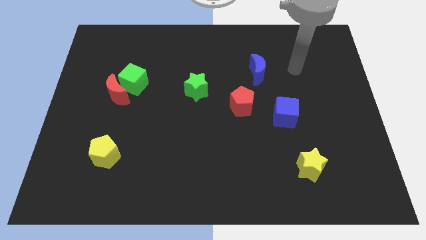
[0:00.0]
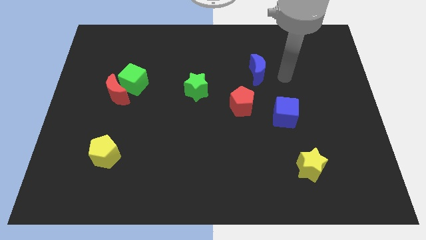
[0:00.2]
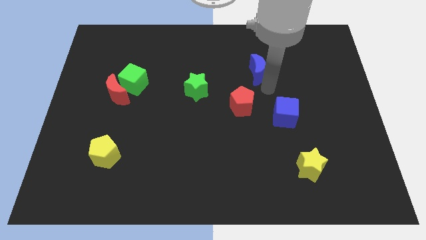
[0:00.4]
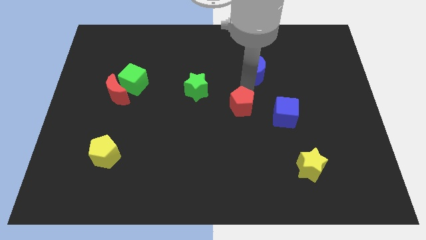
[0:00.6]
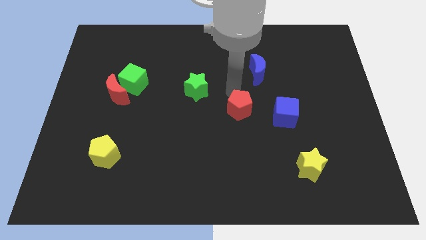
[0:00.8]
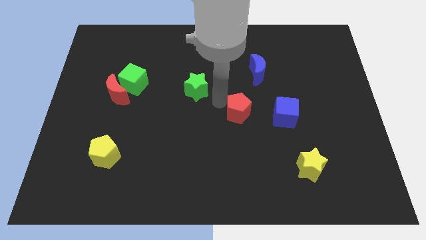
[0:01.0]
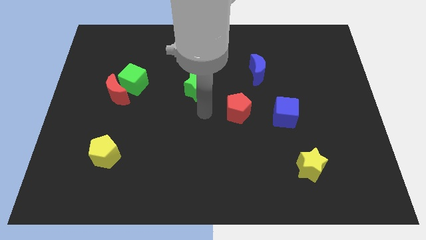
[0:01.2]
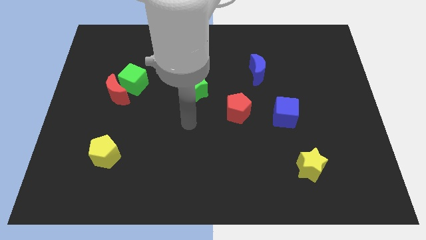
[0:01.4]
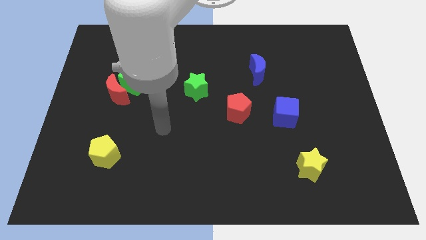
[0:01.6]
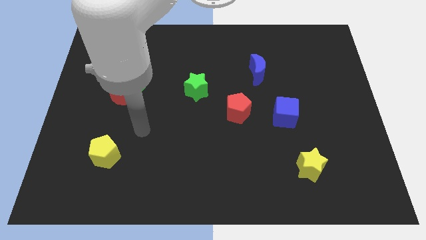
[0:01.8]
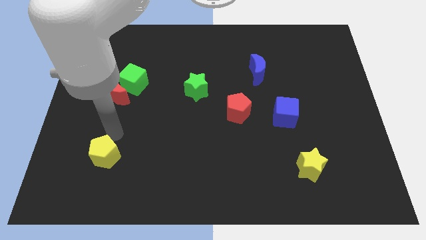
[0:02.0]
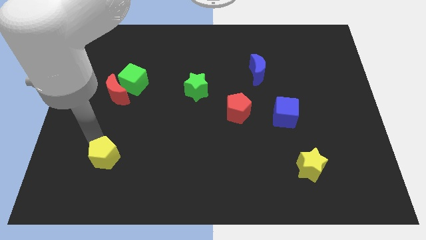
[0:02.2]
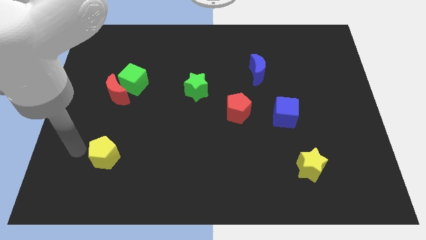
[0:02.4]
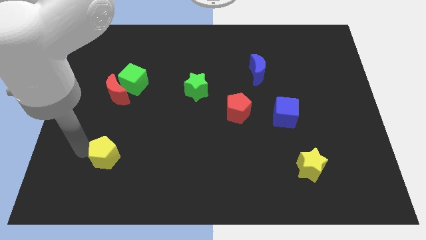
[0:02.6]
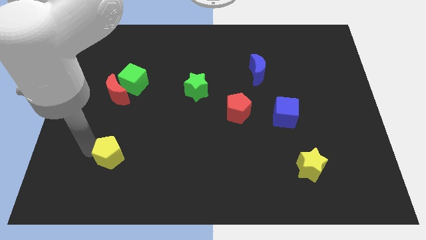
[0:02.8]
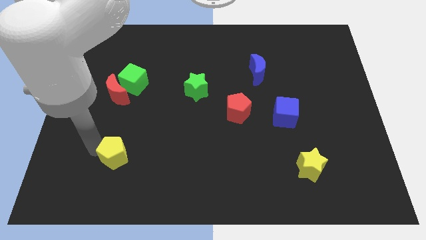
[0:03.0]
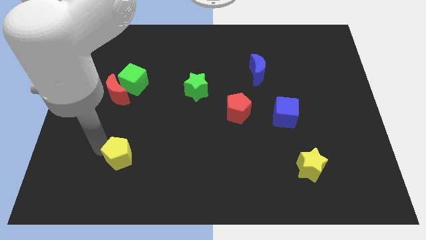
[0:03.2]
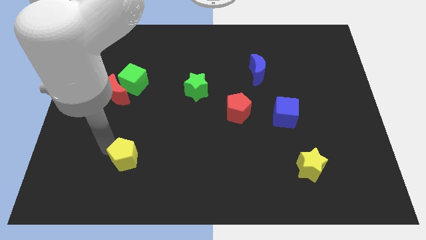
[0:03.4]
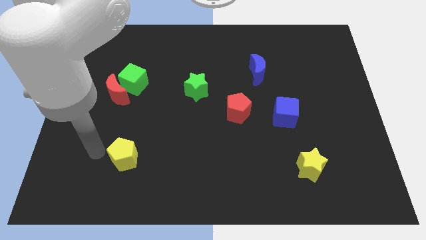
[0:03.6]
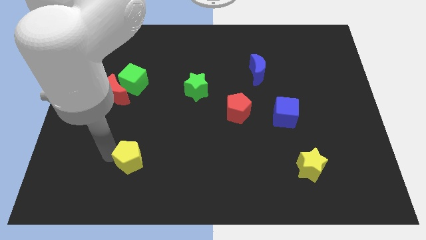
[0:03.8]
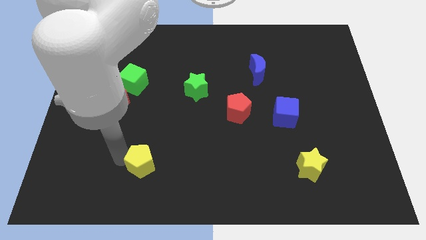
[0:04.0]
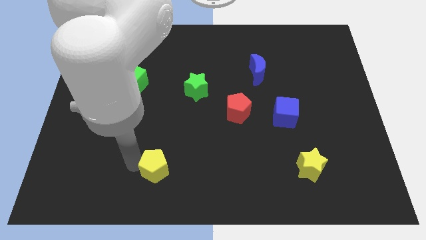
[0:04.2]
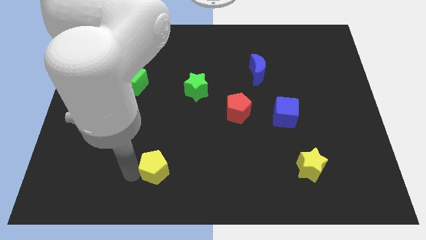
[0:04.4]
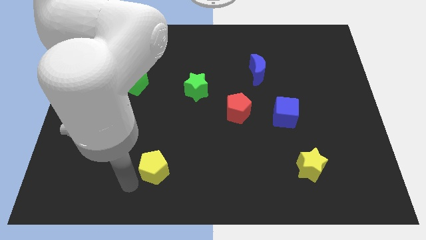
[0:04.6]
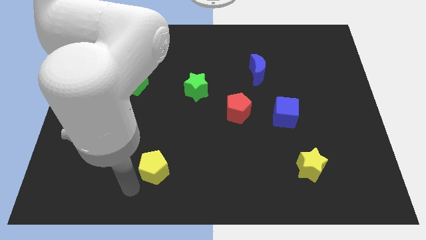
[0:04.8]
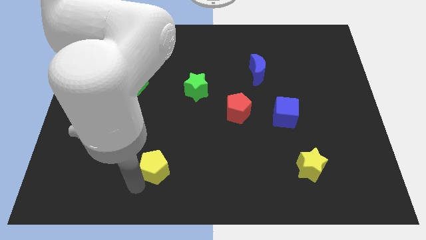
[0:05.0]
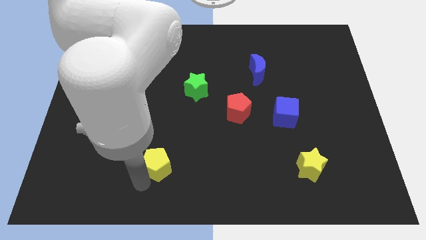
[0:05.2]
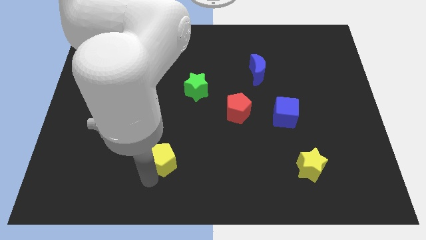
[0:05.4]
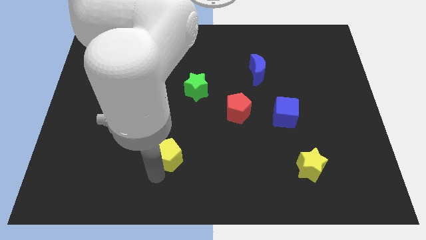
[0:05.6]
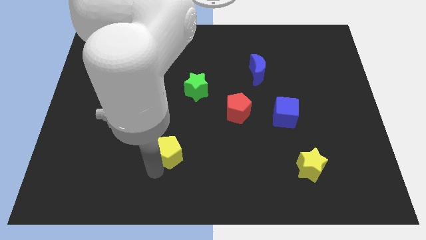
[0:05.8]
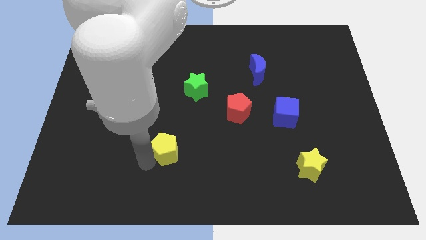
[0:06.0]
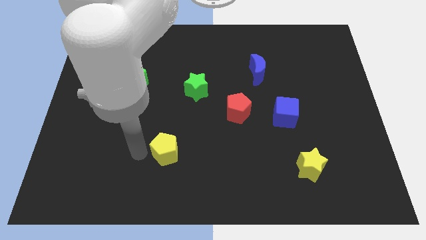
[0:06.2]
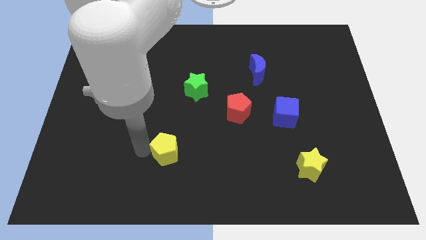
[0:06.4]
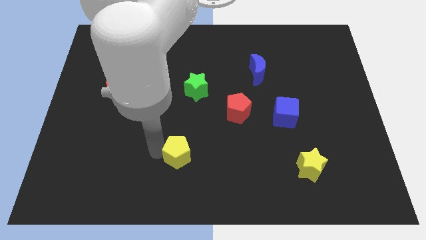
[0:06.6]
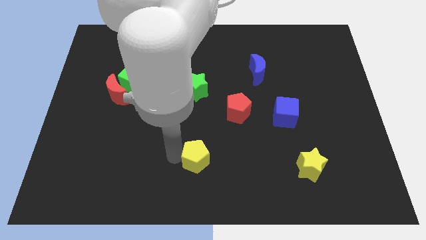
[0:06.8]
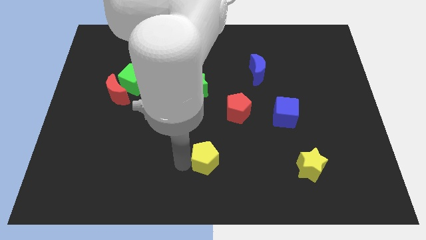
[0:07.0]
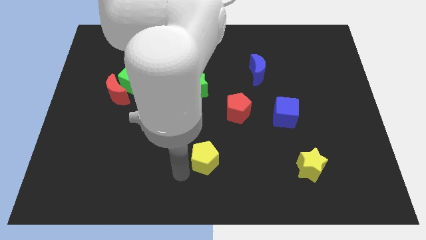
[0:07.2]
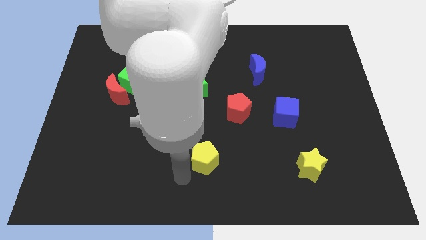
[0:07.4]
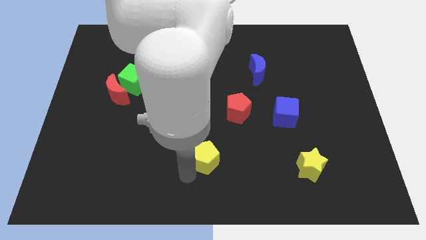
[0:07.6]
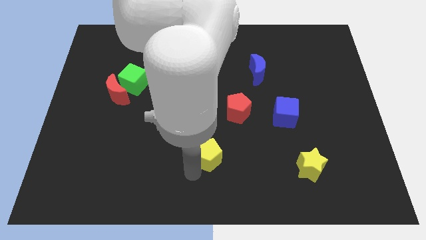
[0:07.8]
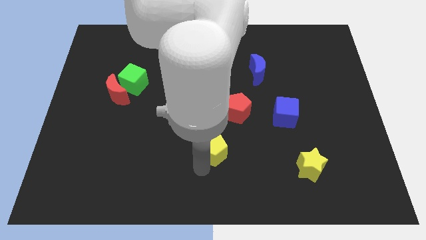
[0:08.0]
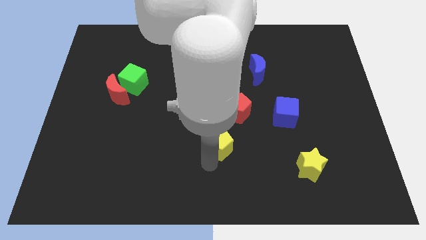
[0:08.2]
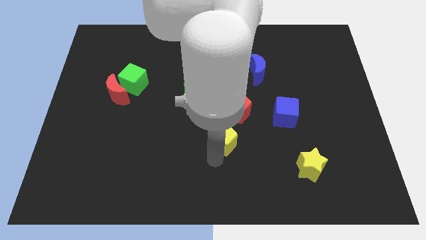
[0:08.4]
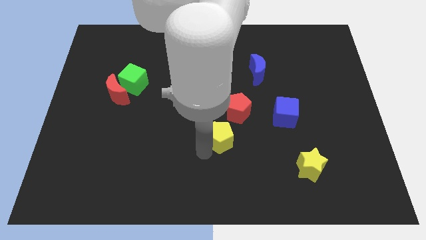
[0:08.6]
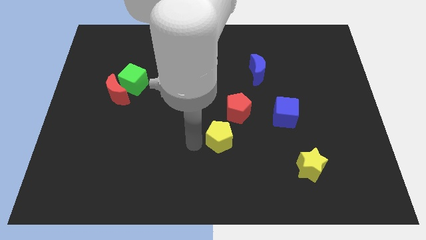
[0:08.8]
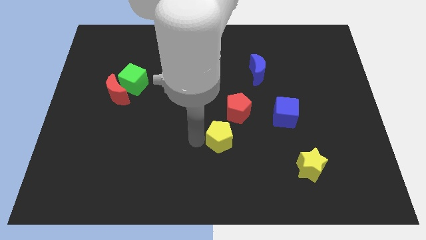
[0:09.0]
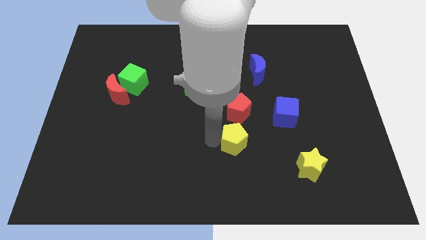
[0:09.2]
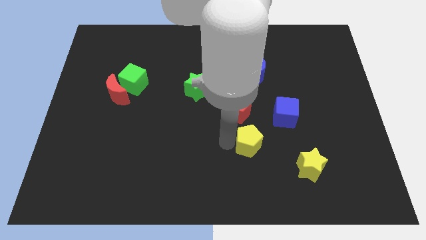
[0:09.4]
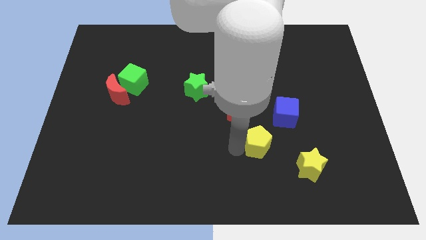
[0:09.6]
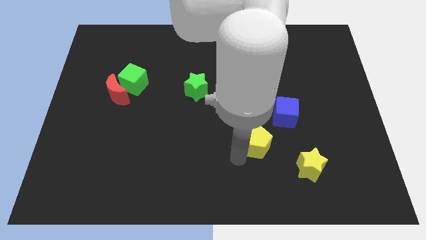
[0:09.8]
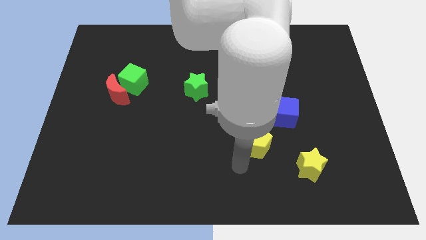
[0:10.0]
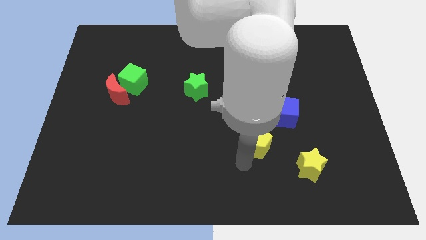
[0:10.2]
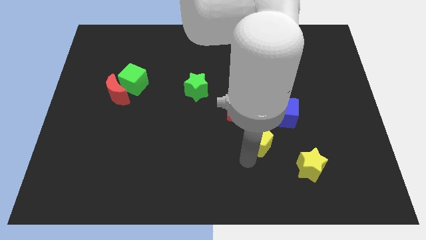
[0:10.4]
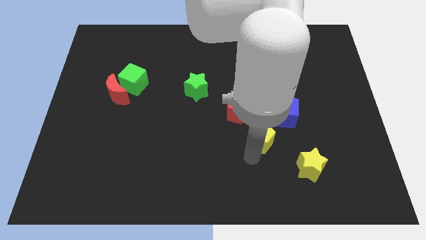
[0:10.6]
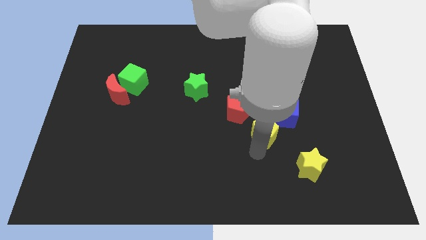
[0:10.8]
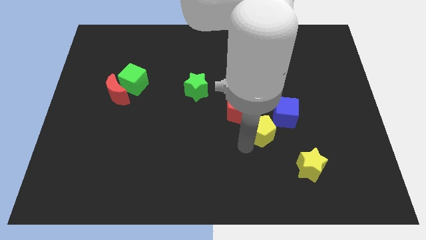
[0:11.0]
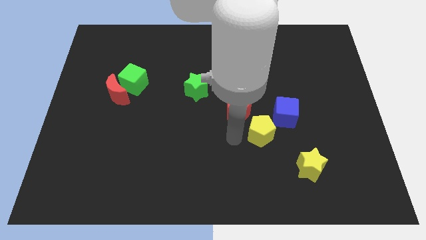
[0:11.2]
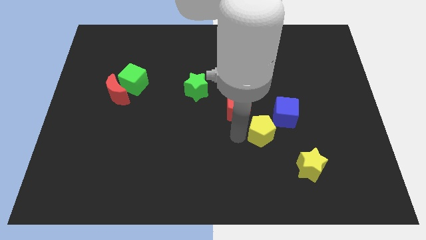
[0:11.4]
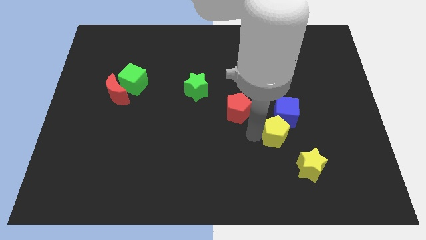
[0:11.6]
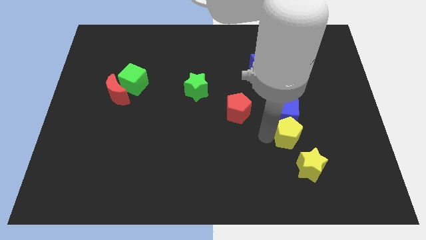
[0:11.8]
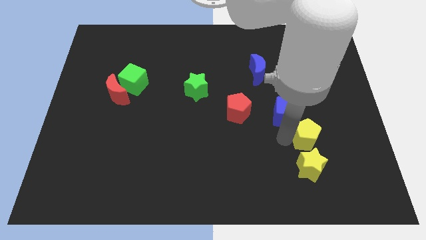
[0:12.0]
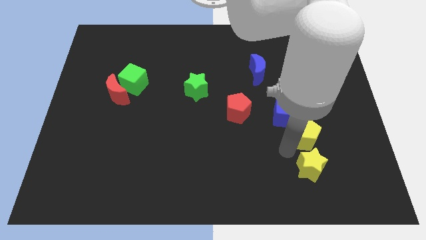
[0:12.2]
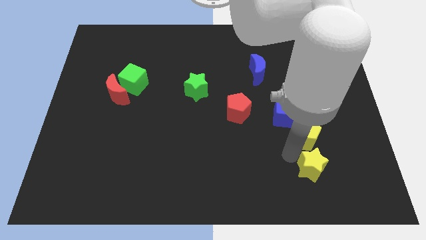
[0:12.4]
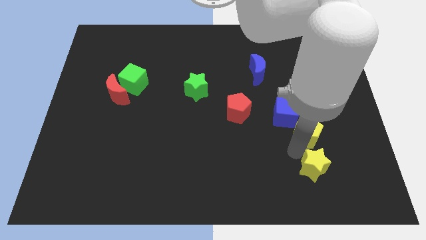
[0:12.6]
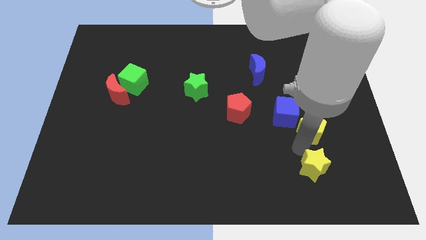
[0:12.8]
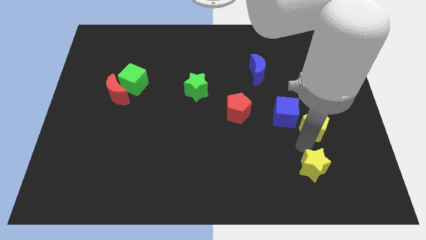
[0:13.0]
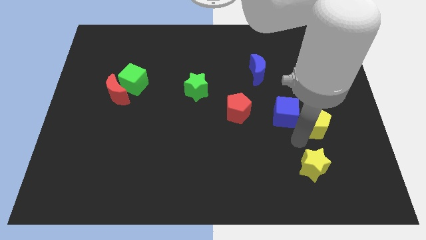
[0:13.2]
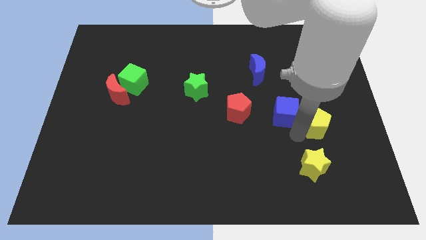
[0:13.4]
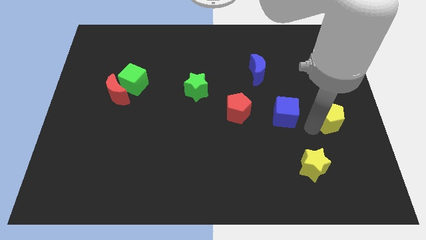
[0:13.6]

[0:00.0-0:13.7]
push the yellow pentagon to the right side of the board
